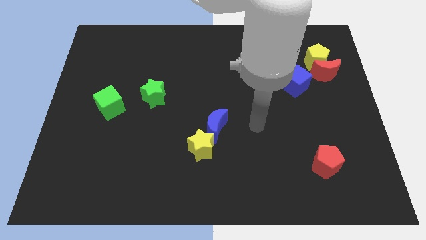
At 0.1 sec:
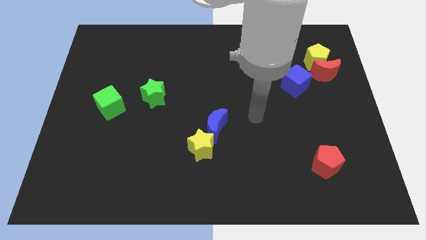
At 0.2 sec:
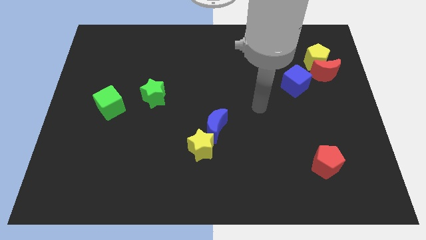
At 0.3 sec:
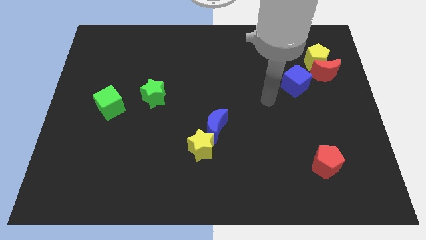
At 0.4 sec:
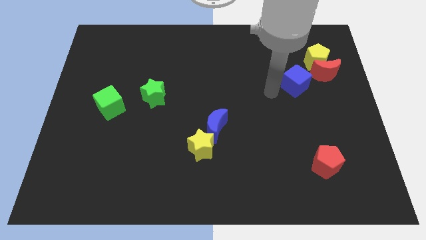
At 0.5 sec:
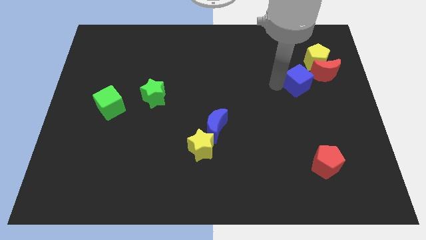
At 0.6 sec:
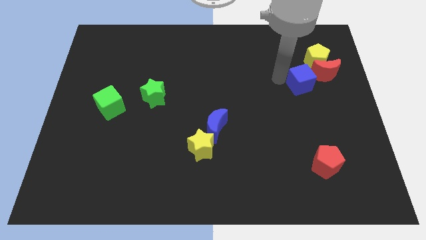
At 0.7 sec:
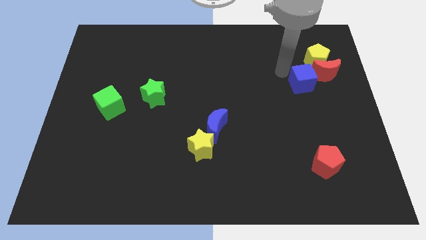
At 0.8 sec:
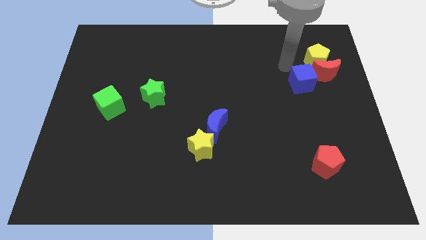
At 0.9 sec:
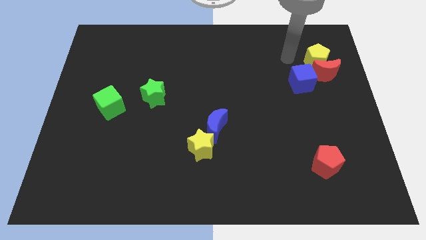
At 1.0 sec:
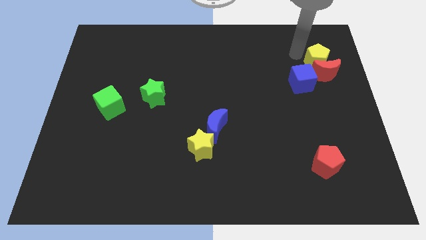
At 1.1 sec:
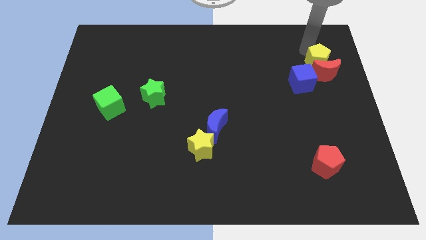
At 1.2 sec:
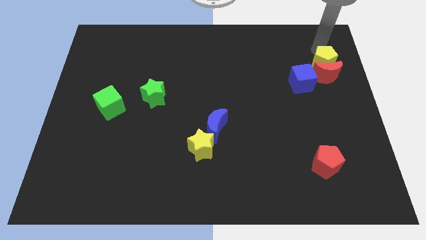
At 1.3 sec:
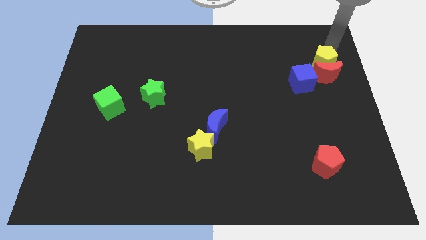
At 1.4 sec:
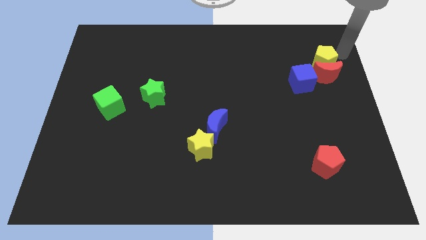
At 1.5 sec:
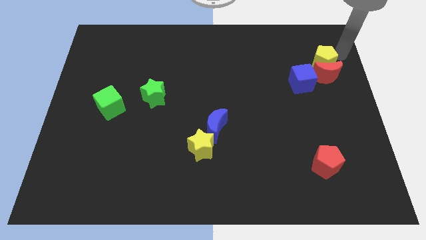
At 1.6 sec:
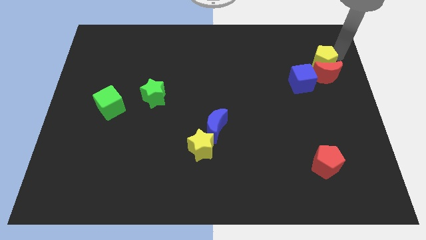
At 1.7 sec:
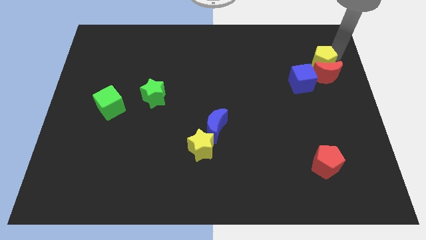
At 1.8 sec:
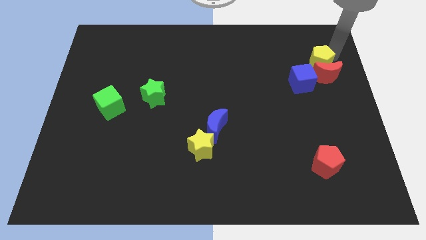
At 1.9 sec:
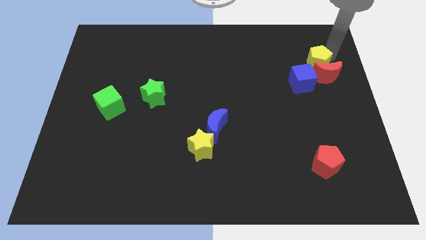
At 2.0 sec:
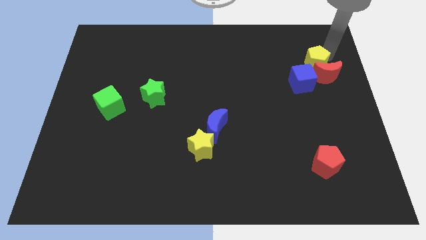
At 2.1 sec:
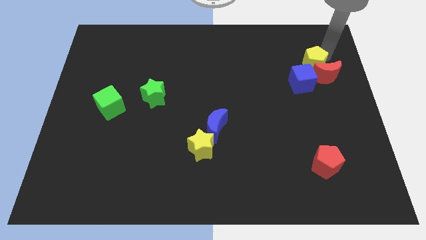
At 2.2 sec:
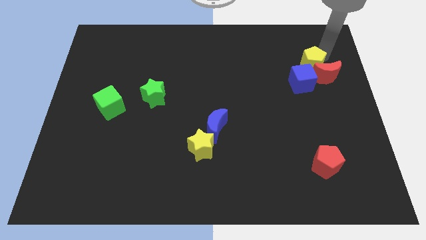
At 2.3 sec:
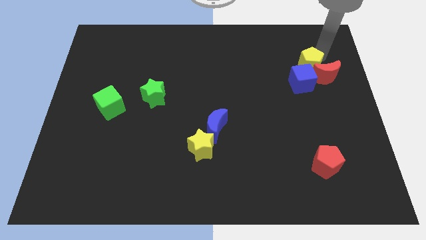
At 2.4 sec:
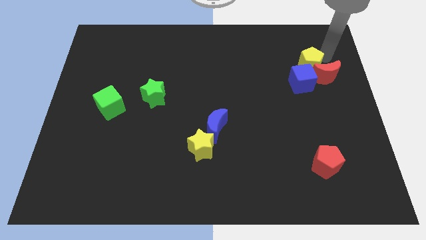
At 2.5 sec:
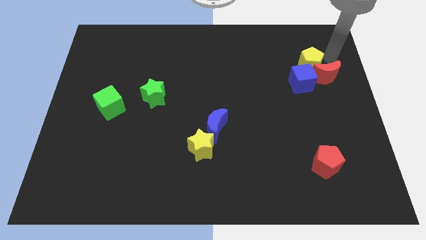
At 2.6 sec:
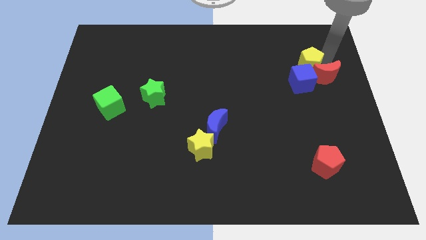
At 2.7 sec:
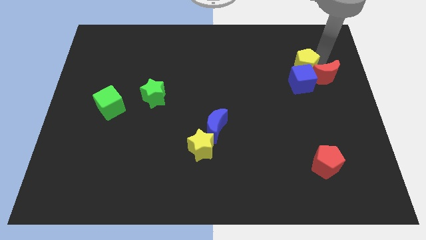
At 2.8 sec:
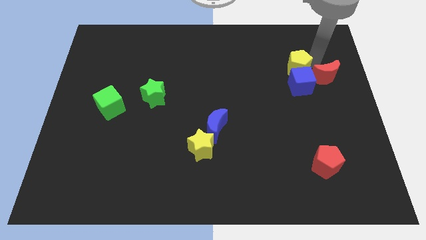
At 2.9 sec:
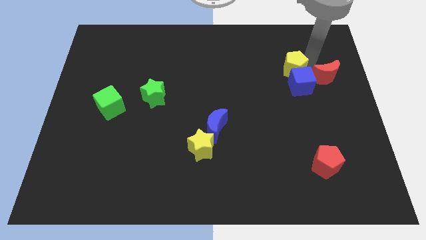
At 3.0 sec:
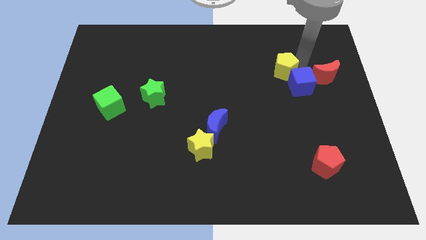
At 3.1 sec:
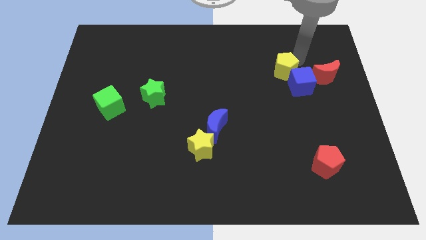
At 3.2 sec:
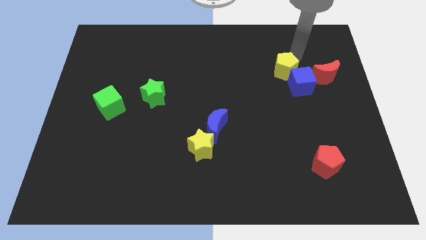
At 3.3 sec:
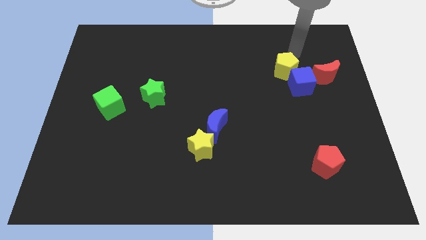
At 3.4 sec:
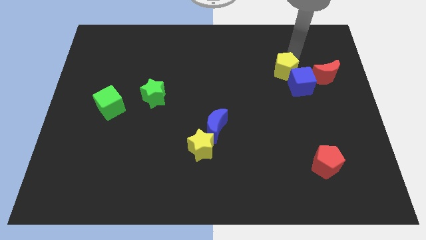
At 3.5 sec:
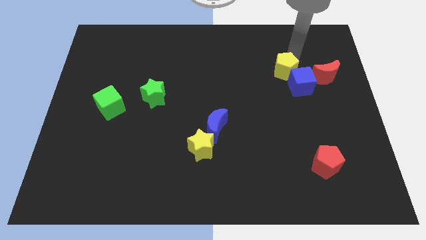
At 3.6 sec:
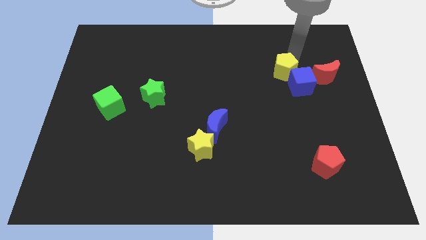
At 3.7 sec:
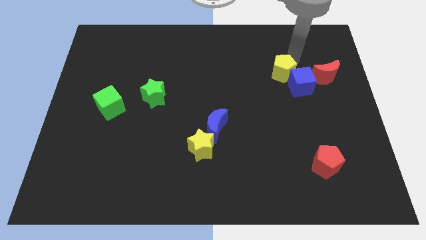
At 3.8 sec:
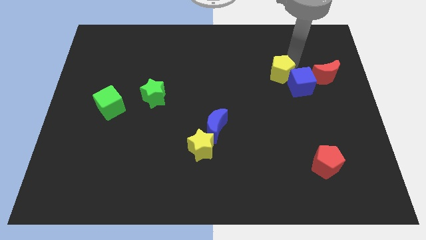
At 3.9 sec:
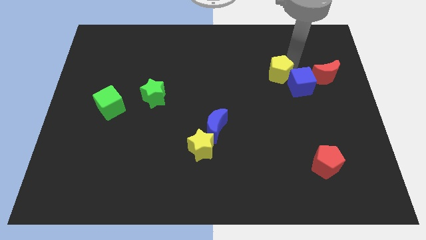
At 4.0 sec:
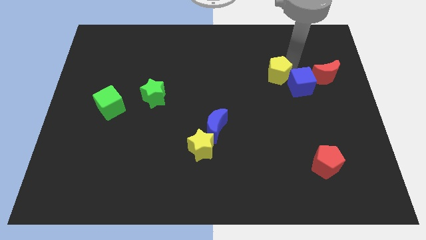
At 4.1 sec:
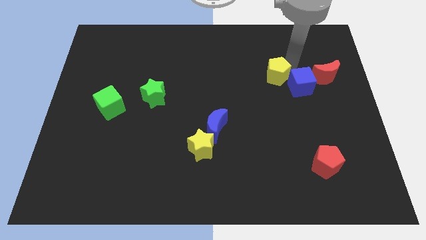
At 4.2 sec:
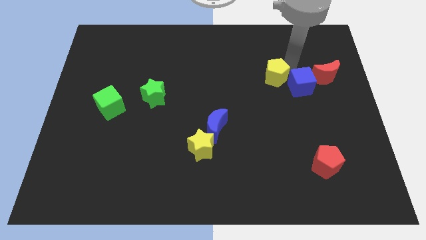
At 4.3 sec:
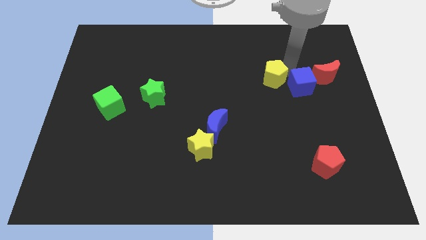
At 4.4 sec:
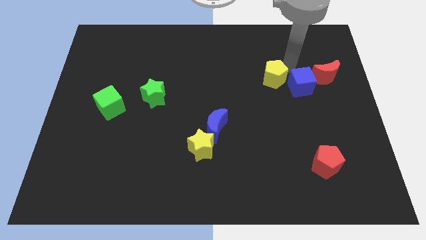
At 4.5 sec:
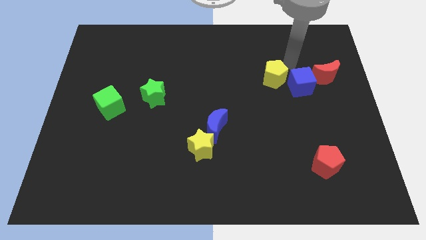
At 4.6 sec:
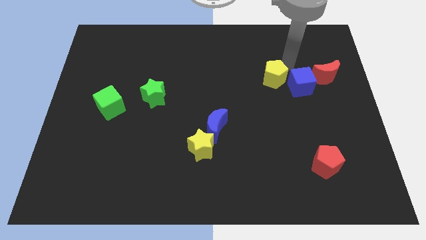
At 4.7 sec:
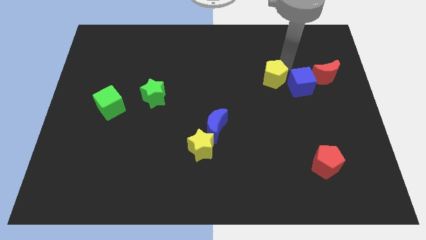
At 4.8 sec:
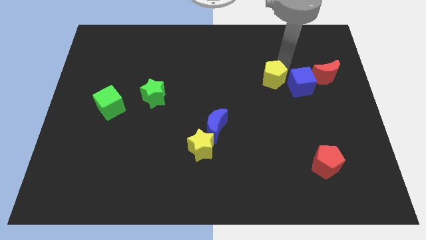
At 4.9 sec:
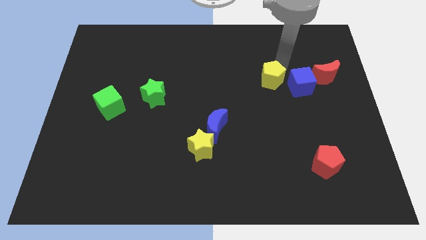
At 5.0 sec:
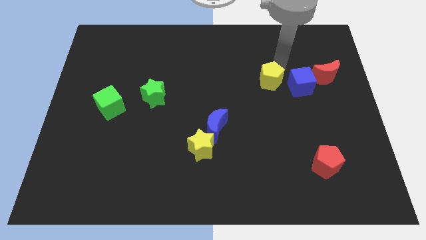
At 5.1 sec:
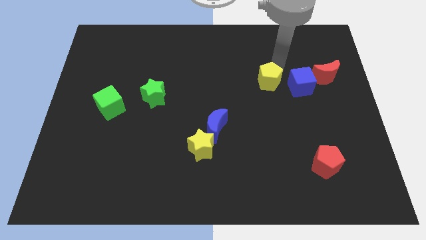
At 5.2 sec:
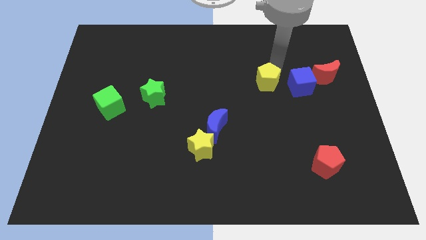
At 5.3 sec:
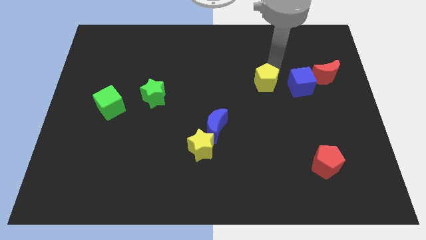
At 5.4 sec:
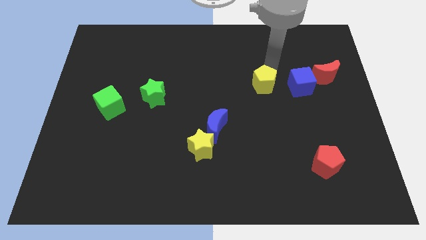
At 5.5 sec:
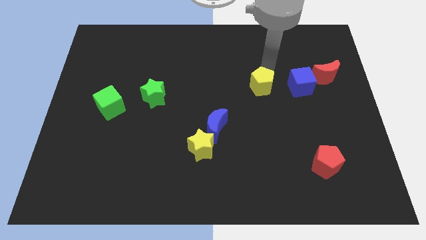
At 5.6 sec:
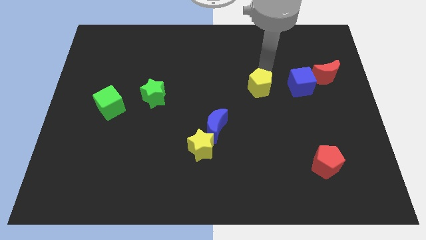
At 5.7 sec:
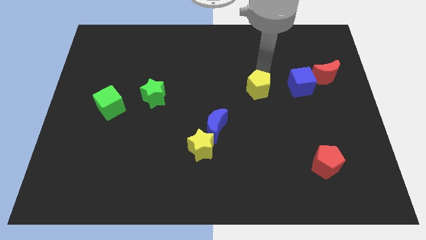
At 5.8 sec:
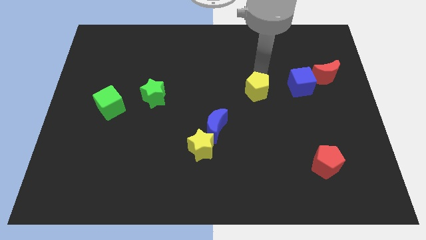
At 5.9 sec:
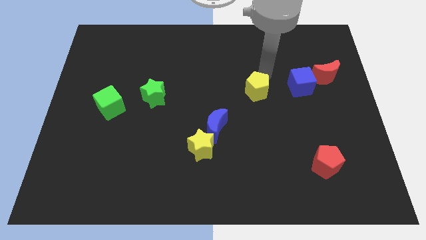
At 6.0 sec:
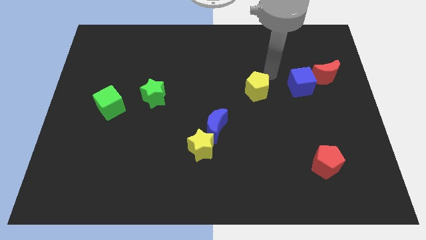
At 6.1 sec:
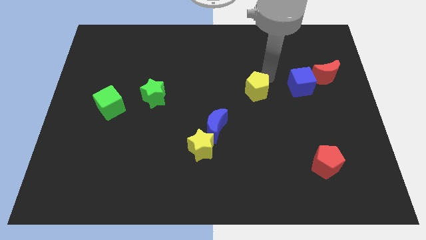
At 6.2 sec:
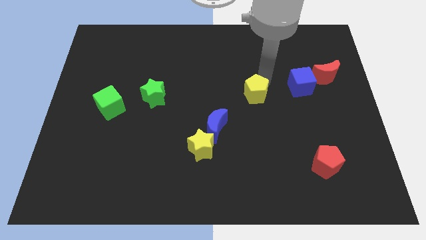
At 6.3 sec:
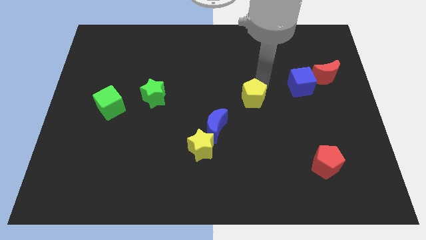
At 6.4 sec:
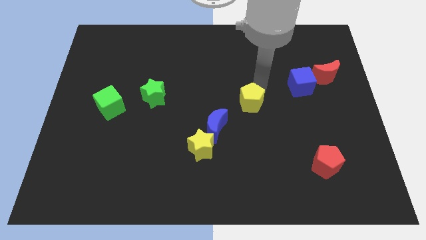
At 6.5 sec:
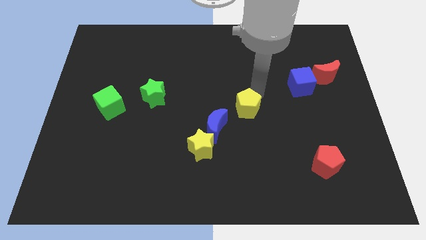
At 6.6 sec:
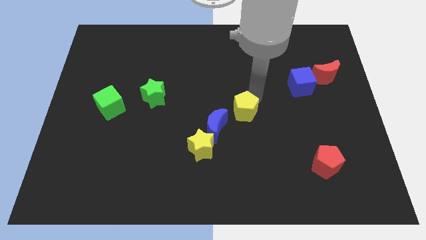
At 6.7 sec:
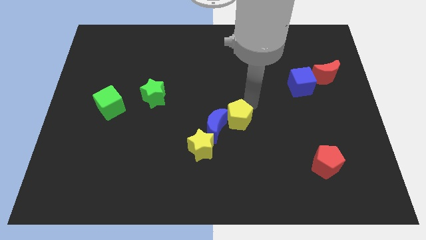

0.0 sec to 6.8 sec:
move the yellow pentagon to the blue moon

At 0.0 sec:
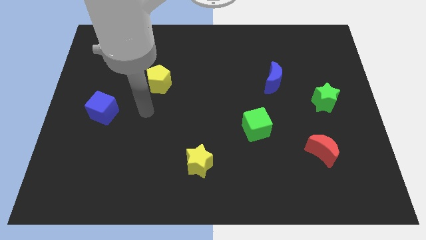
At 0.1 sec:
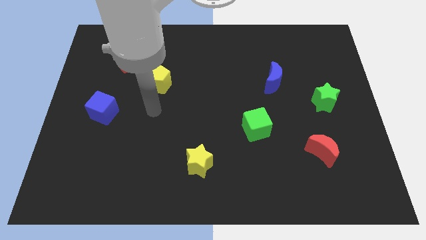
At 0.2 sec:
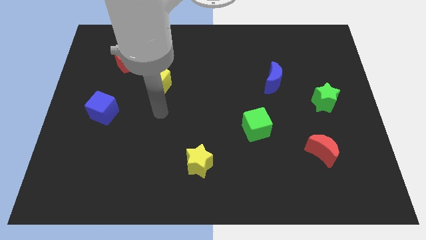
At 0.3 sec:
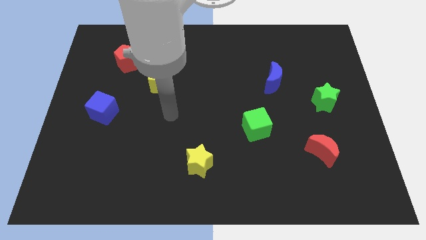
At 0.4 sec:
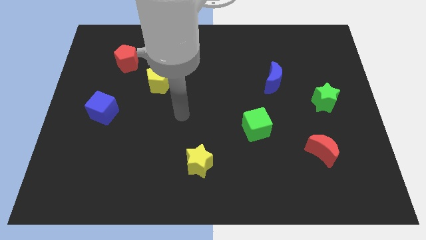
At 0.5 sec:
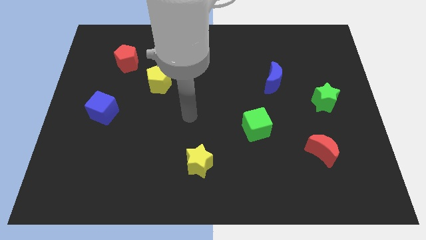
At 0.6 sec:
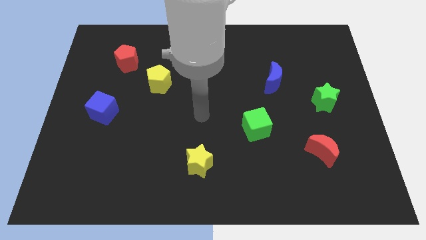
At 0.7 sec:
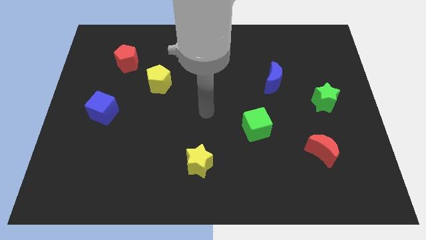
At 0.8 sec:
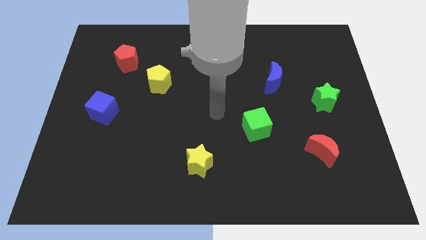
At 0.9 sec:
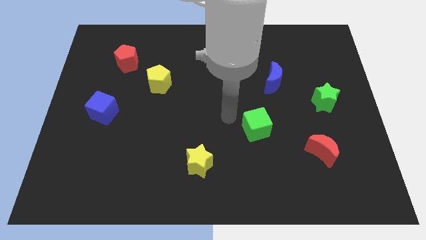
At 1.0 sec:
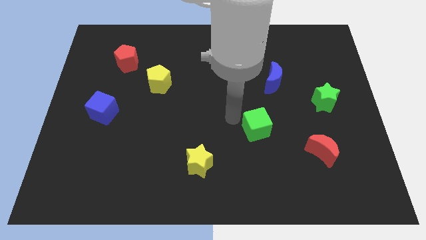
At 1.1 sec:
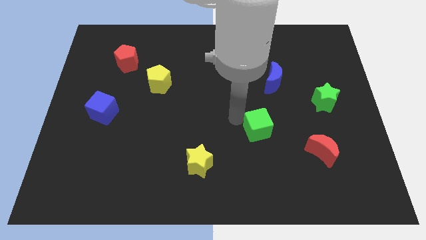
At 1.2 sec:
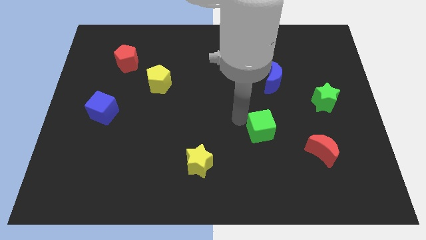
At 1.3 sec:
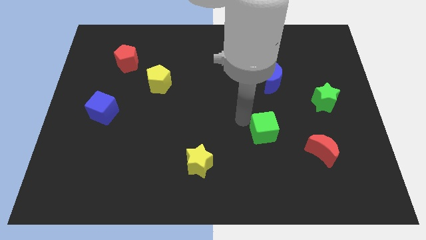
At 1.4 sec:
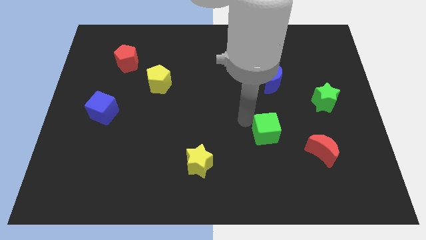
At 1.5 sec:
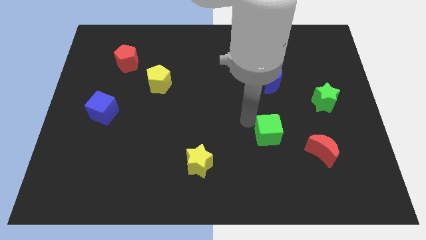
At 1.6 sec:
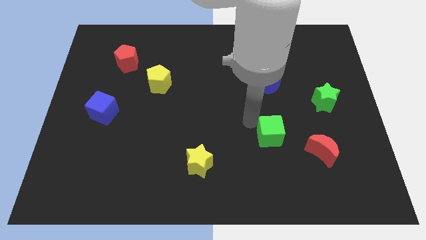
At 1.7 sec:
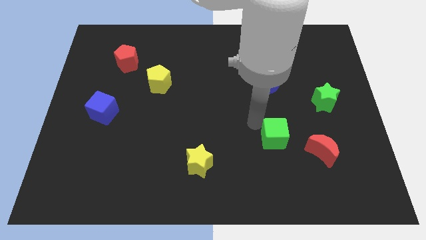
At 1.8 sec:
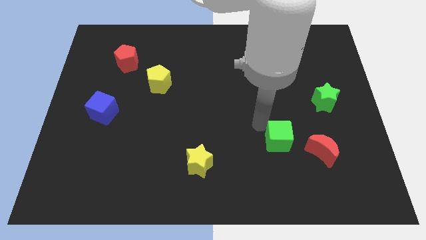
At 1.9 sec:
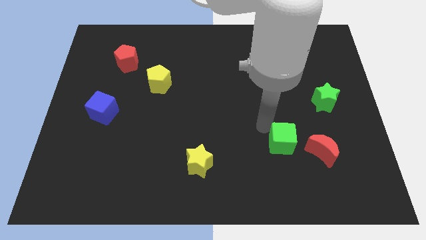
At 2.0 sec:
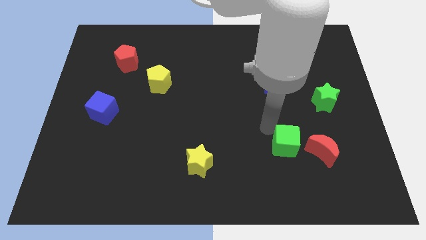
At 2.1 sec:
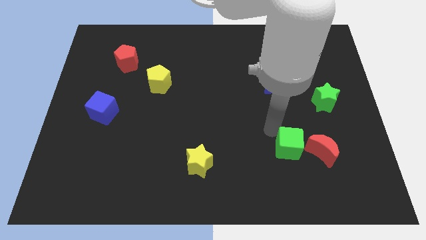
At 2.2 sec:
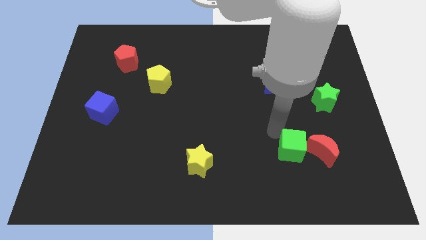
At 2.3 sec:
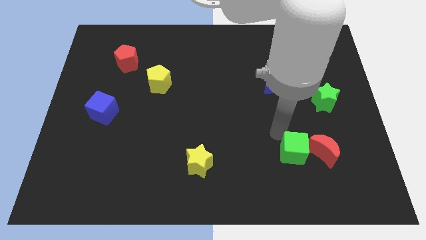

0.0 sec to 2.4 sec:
move the green cube to the red moon
